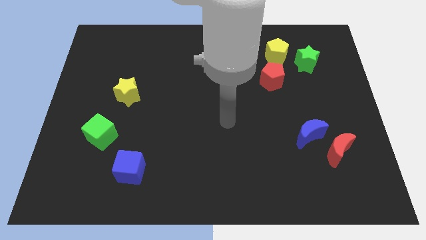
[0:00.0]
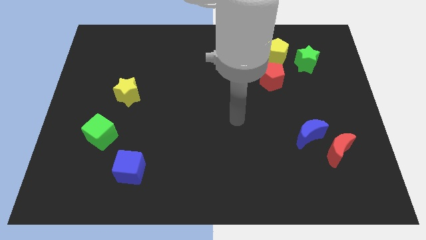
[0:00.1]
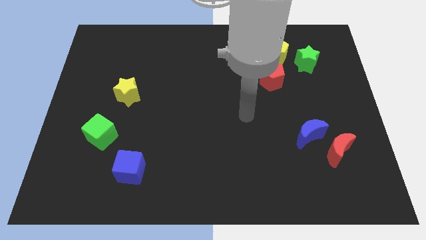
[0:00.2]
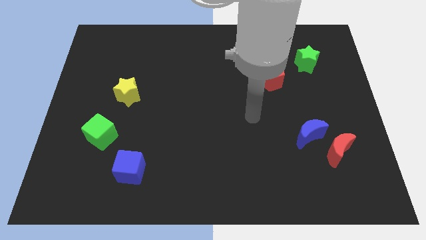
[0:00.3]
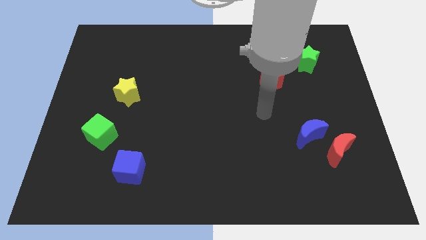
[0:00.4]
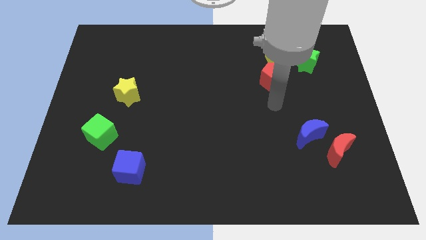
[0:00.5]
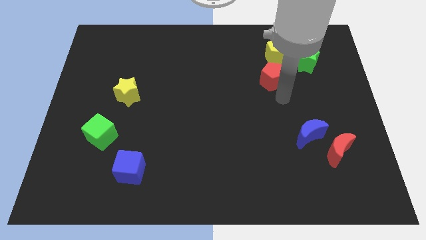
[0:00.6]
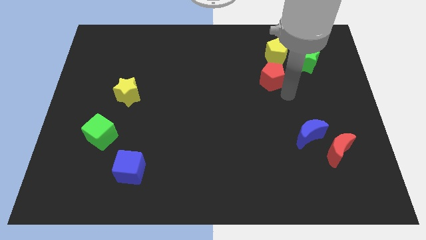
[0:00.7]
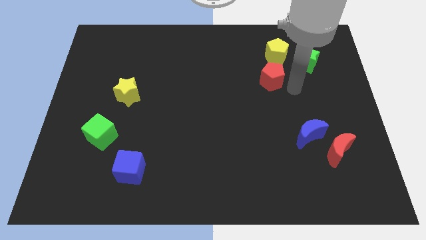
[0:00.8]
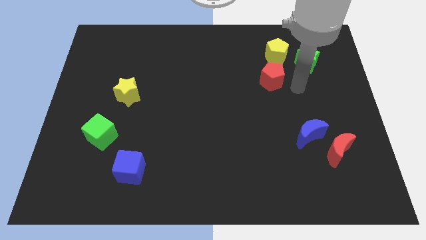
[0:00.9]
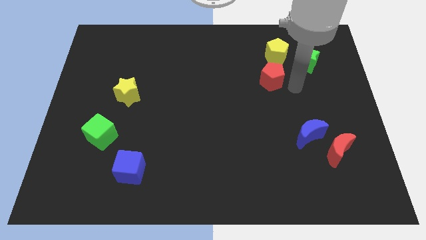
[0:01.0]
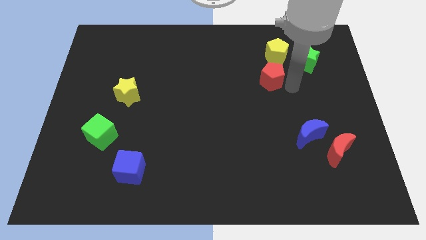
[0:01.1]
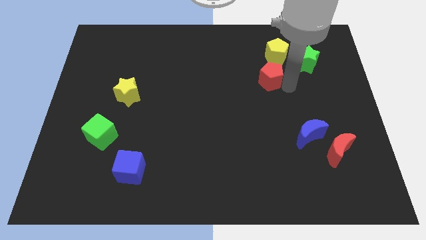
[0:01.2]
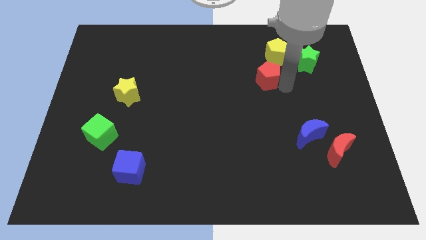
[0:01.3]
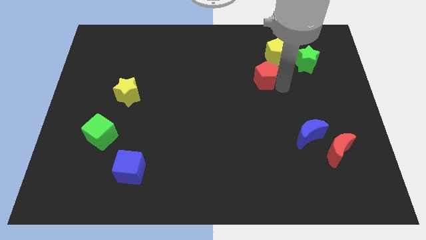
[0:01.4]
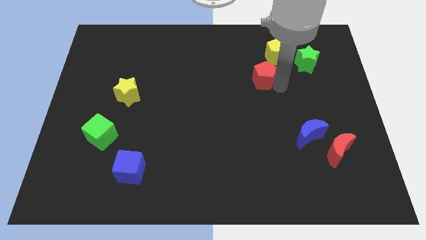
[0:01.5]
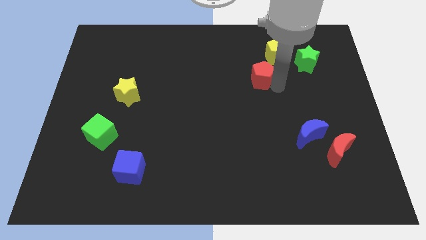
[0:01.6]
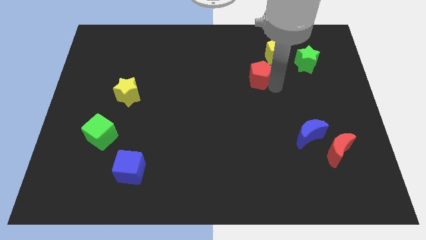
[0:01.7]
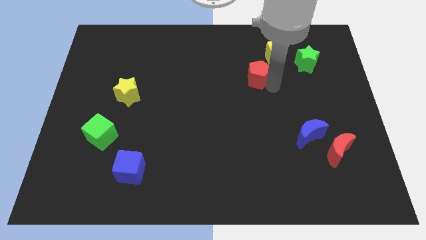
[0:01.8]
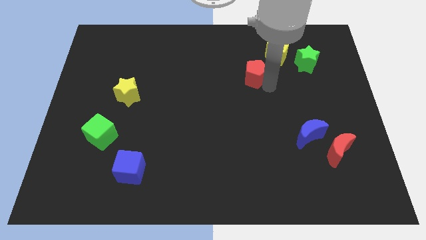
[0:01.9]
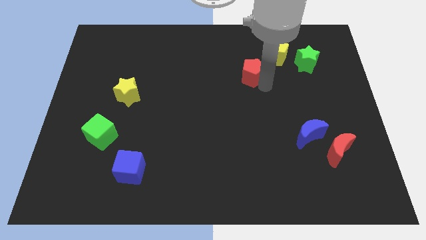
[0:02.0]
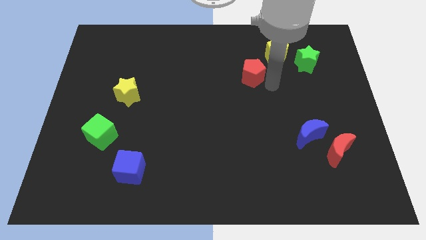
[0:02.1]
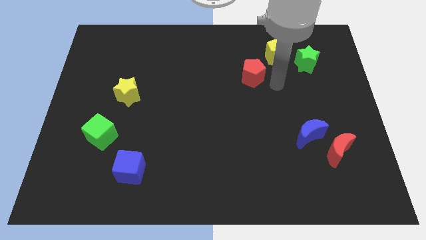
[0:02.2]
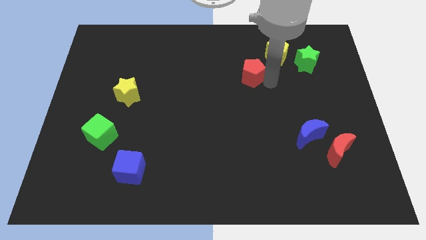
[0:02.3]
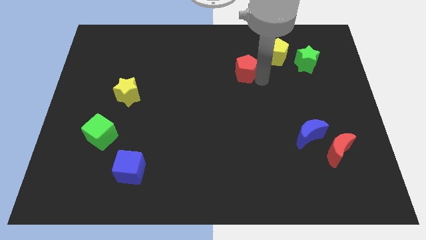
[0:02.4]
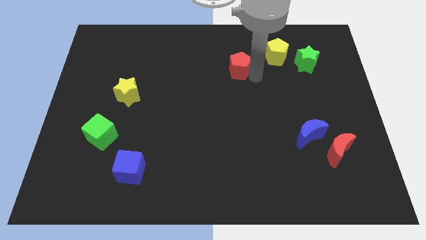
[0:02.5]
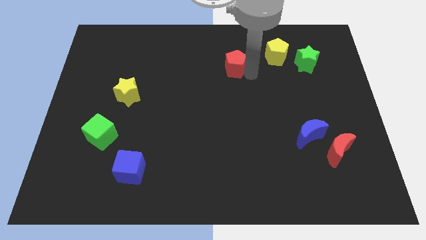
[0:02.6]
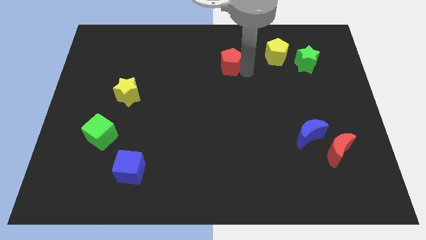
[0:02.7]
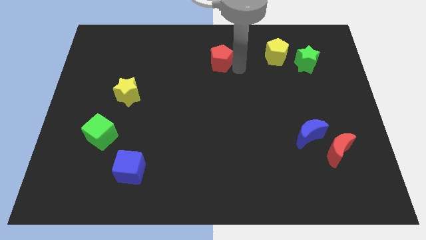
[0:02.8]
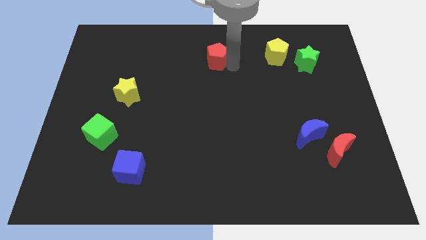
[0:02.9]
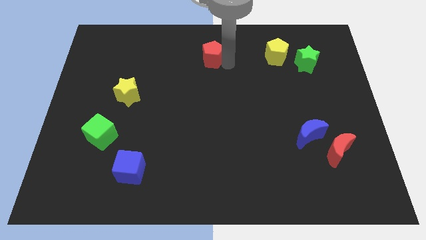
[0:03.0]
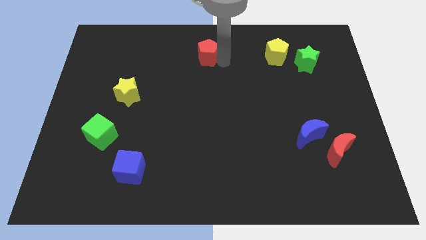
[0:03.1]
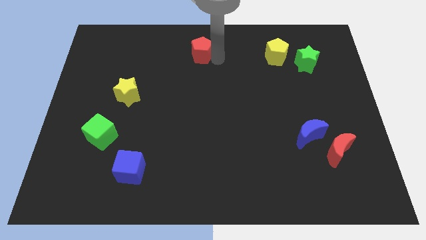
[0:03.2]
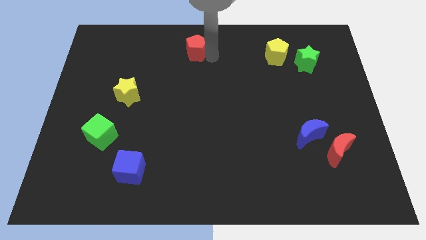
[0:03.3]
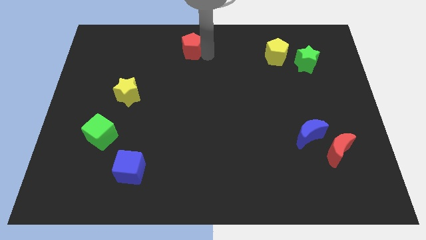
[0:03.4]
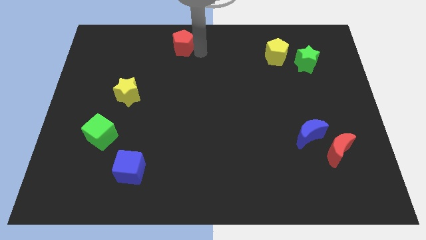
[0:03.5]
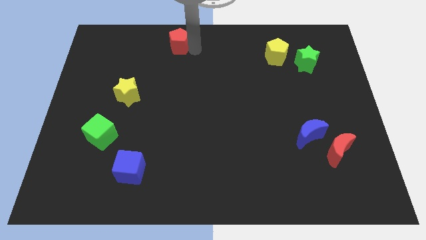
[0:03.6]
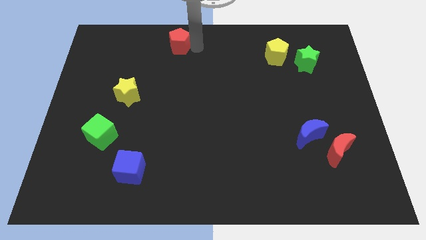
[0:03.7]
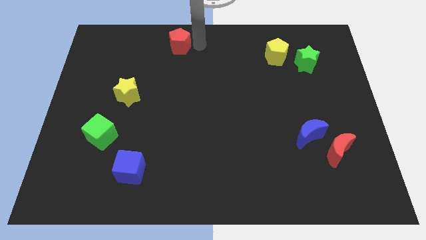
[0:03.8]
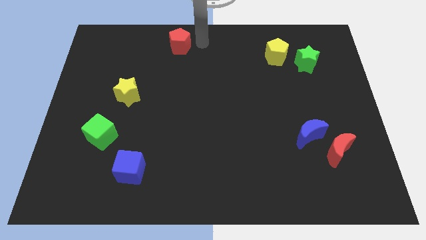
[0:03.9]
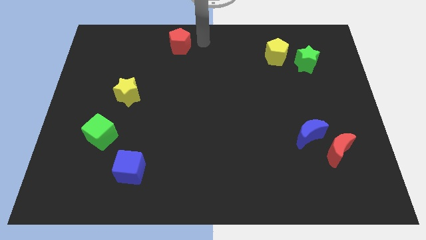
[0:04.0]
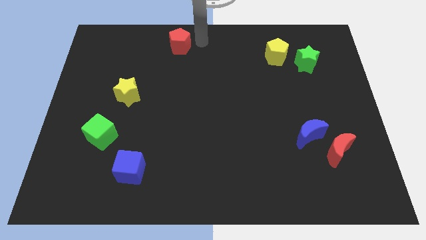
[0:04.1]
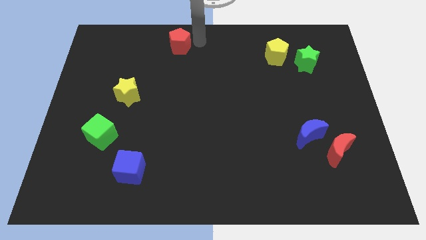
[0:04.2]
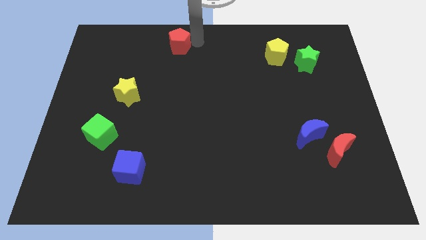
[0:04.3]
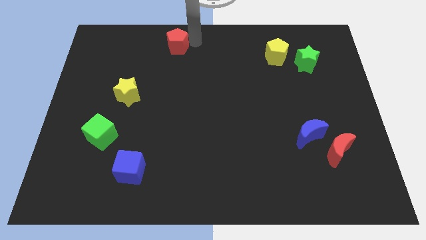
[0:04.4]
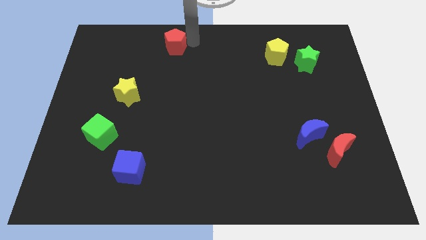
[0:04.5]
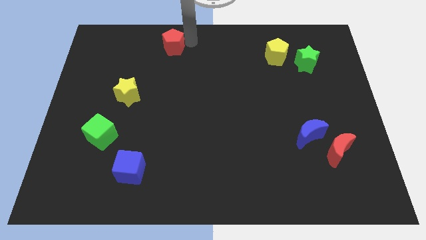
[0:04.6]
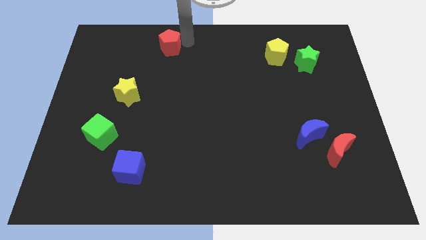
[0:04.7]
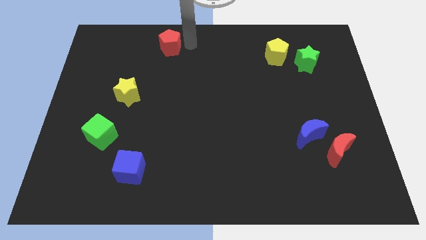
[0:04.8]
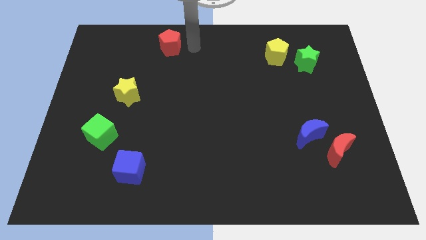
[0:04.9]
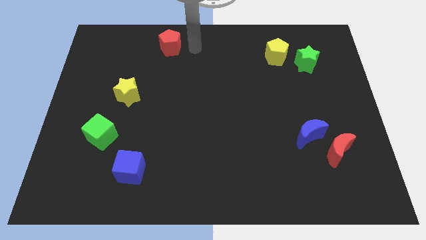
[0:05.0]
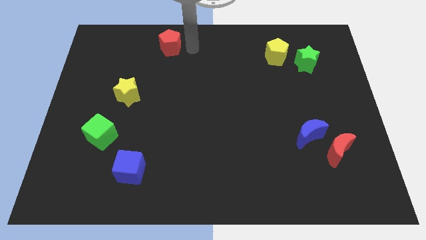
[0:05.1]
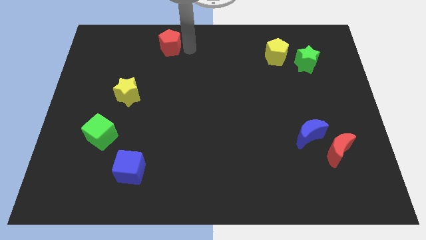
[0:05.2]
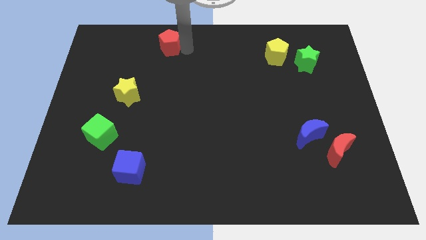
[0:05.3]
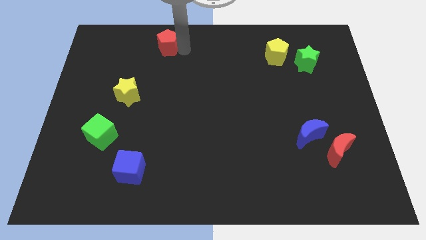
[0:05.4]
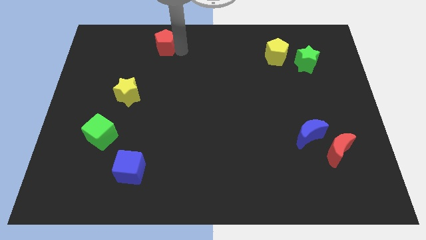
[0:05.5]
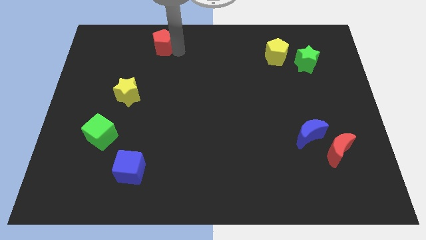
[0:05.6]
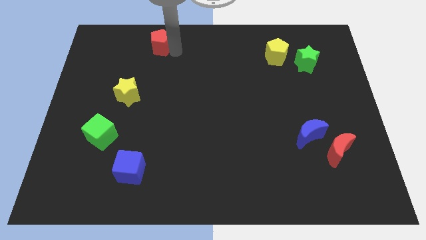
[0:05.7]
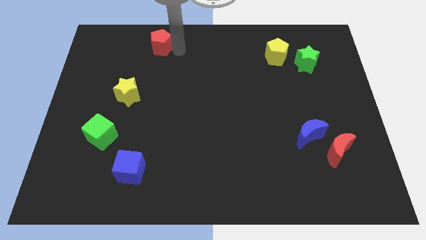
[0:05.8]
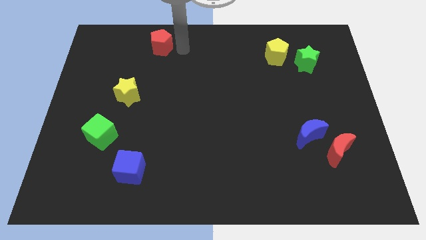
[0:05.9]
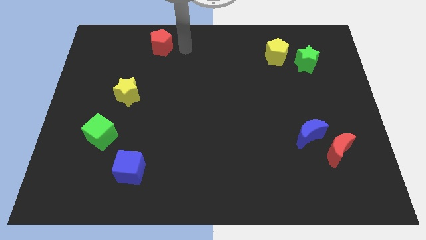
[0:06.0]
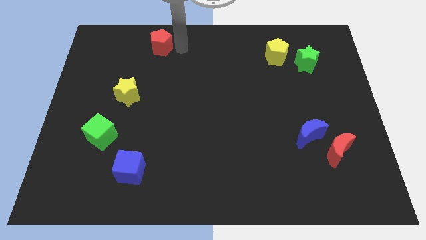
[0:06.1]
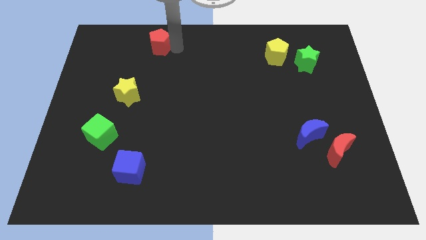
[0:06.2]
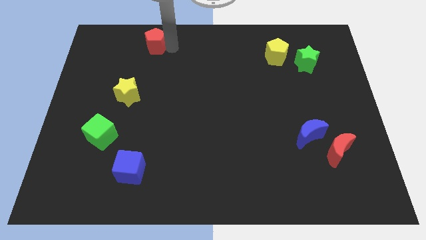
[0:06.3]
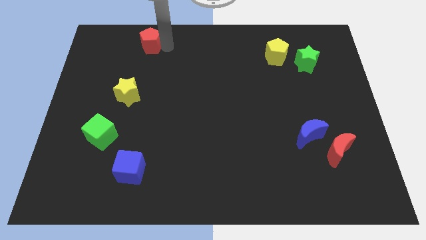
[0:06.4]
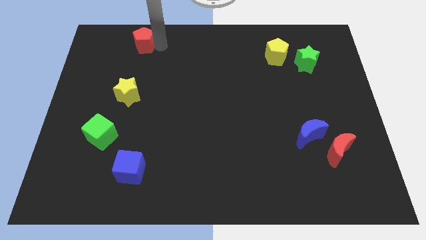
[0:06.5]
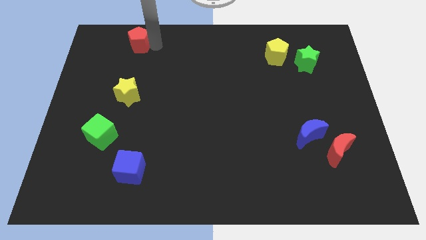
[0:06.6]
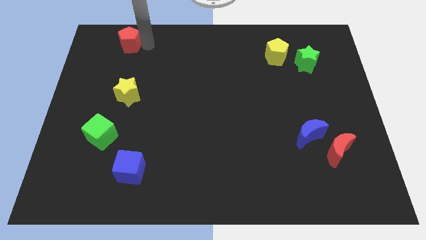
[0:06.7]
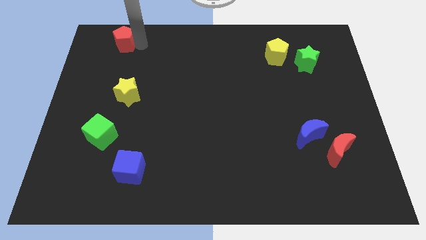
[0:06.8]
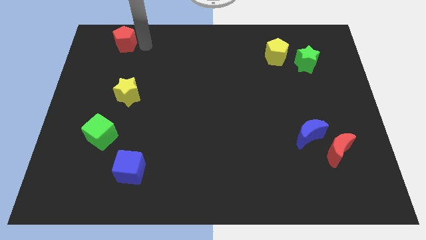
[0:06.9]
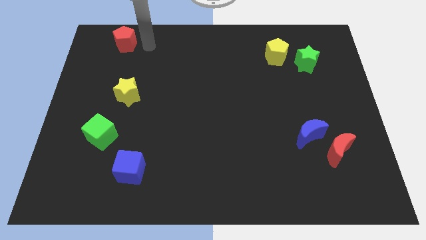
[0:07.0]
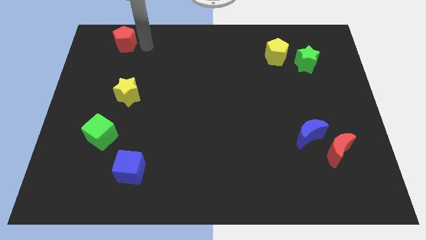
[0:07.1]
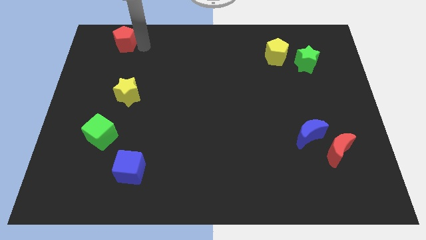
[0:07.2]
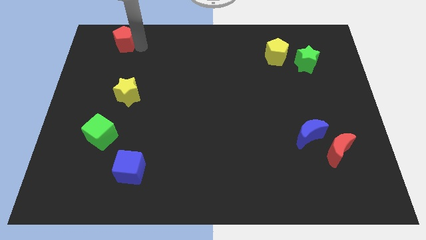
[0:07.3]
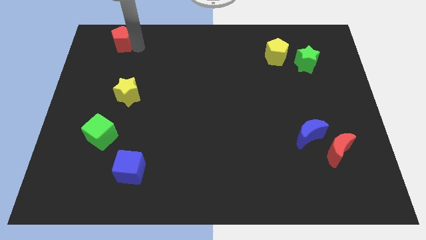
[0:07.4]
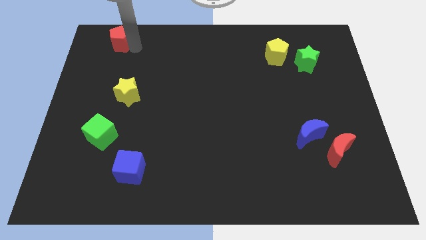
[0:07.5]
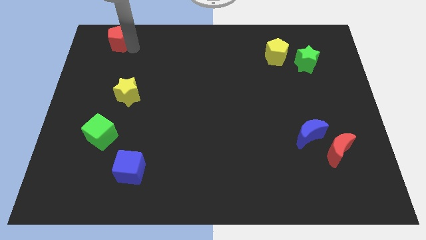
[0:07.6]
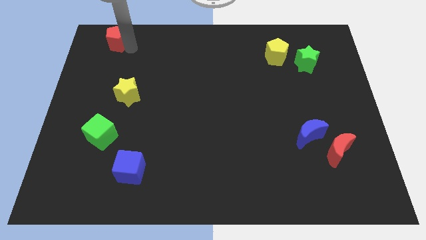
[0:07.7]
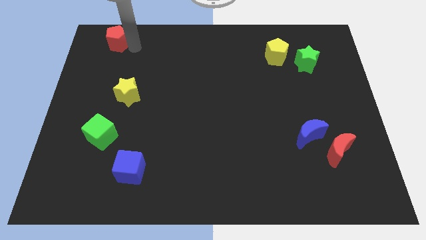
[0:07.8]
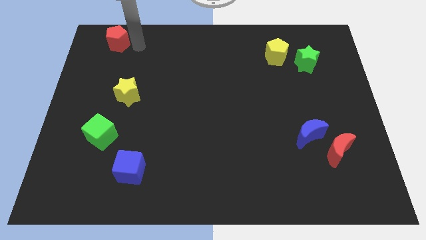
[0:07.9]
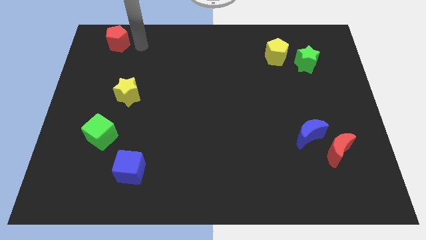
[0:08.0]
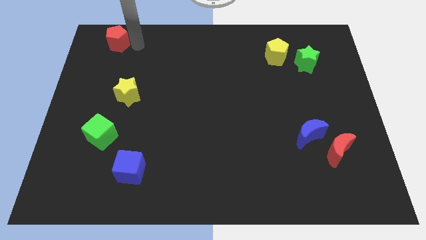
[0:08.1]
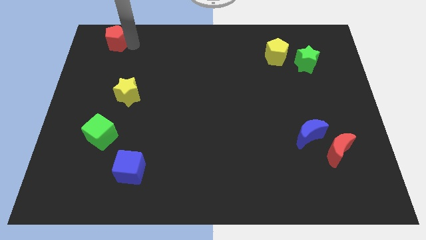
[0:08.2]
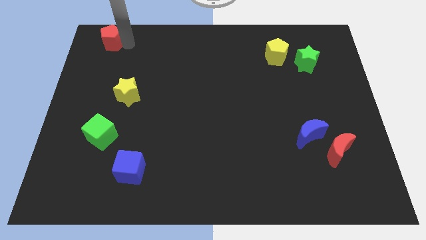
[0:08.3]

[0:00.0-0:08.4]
move the red pentagon to the top left of the board
